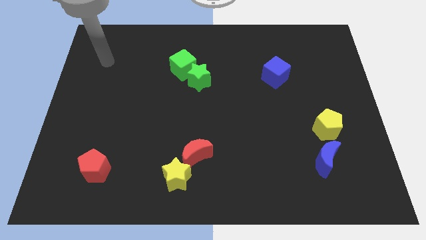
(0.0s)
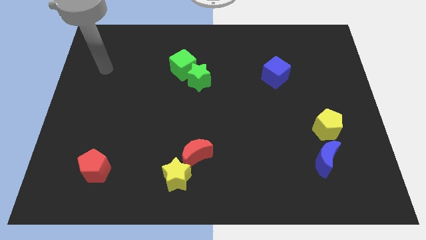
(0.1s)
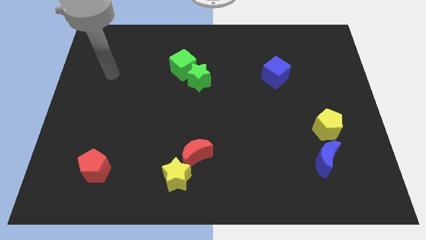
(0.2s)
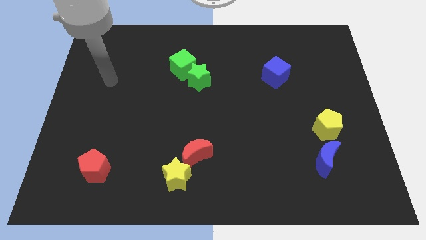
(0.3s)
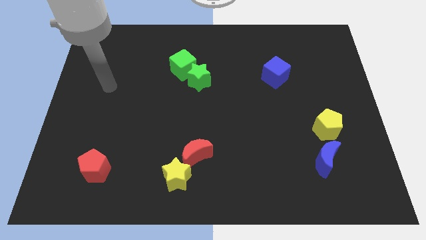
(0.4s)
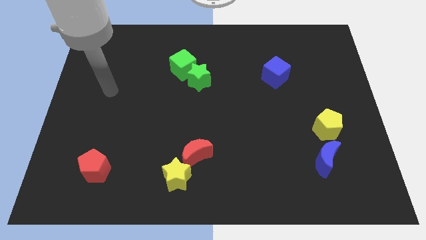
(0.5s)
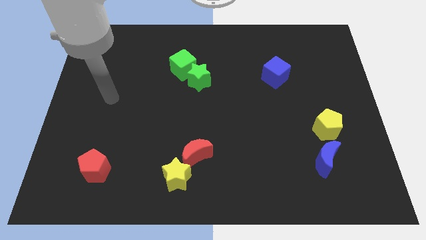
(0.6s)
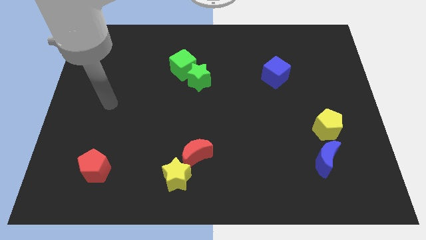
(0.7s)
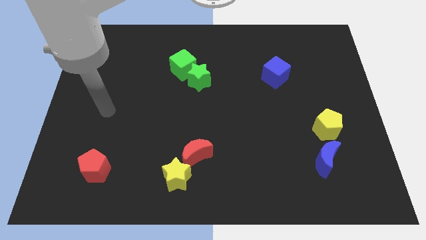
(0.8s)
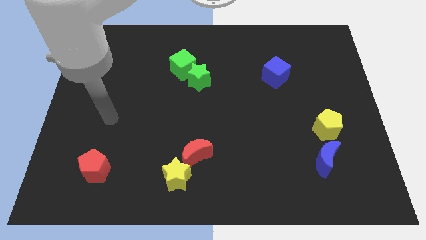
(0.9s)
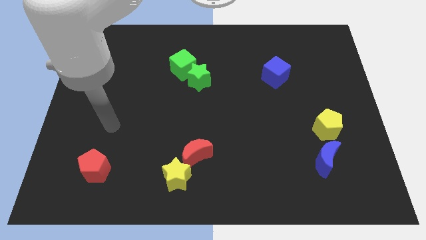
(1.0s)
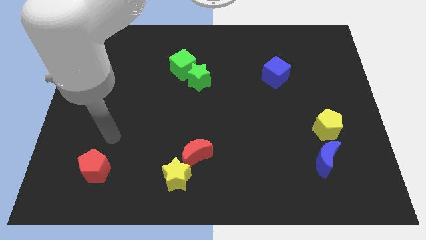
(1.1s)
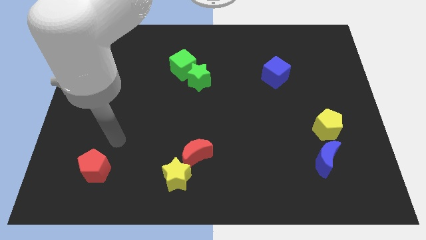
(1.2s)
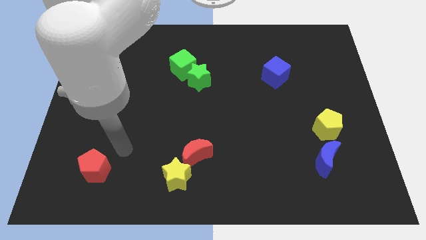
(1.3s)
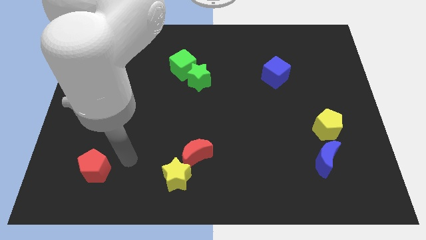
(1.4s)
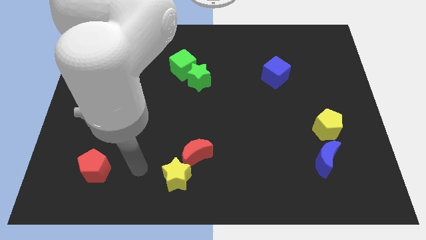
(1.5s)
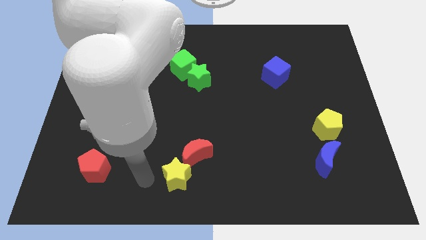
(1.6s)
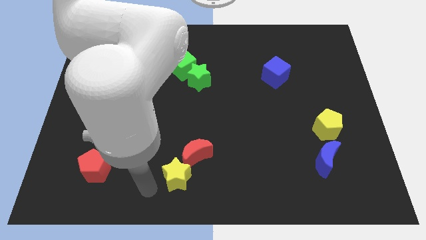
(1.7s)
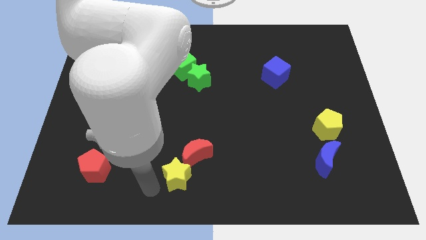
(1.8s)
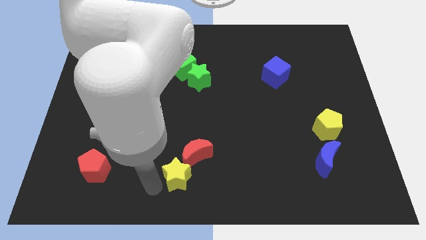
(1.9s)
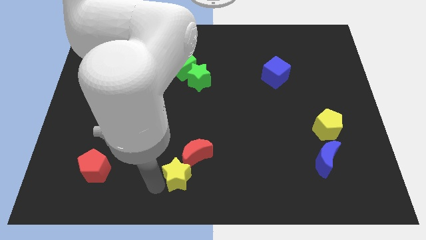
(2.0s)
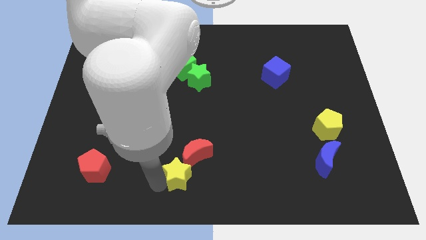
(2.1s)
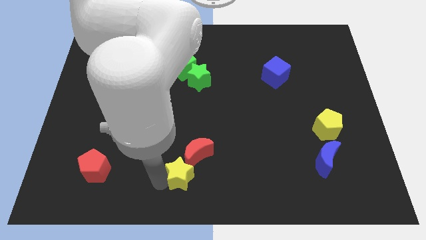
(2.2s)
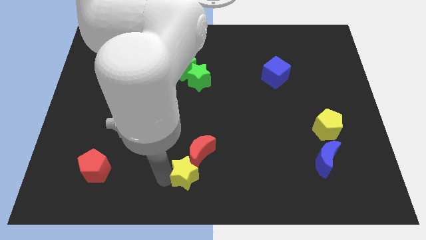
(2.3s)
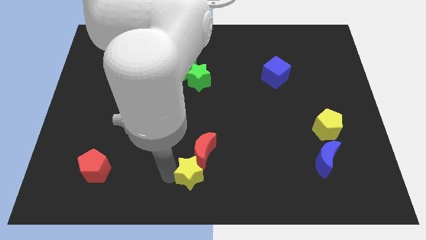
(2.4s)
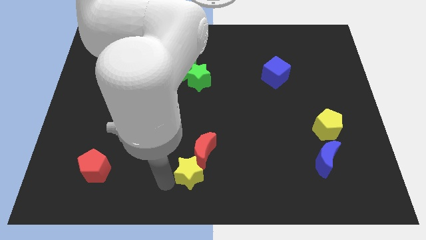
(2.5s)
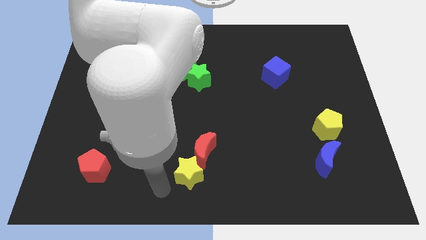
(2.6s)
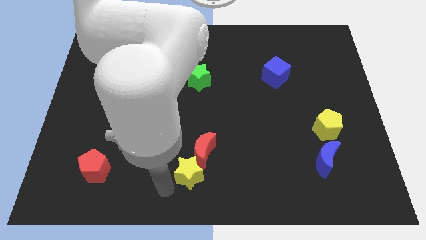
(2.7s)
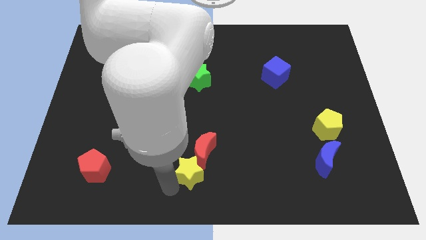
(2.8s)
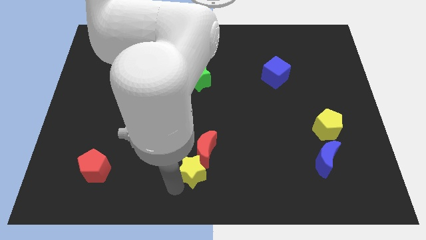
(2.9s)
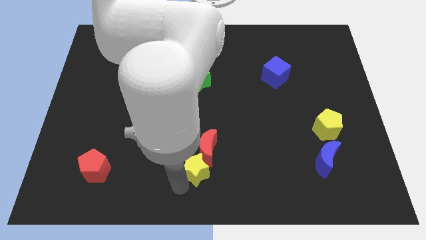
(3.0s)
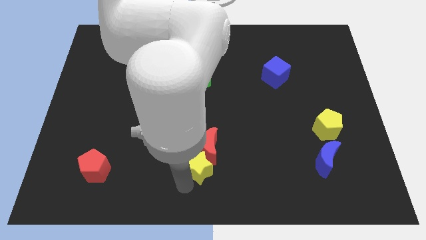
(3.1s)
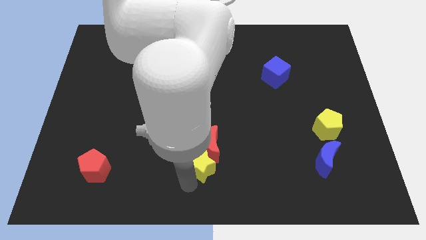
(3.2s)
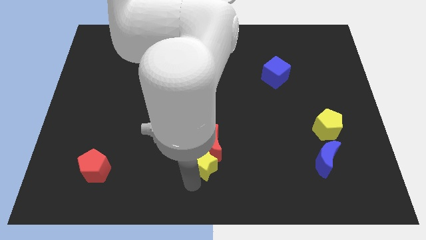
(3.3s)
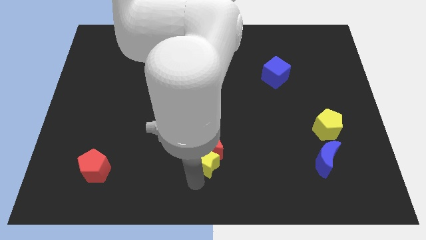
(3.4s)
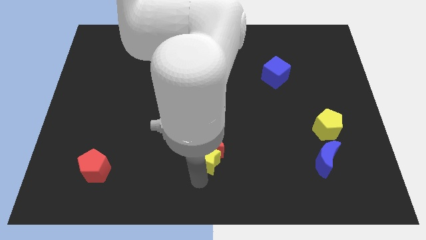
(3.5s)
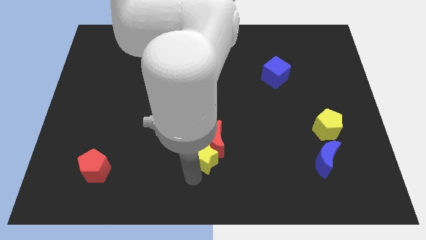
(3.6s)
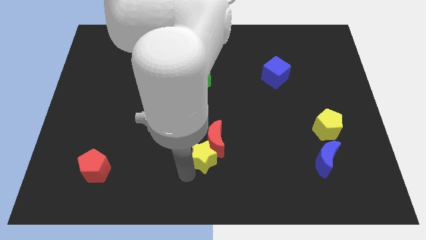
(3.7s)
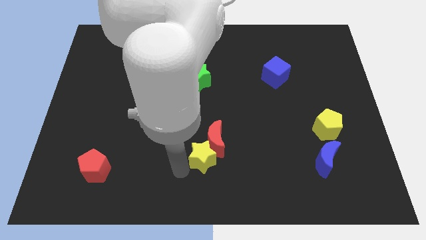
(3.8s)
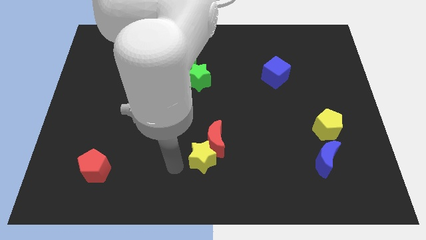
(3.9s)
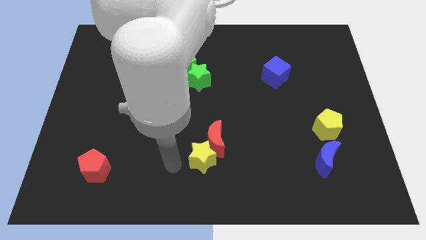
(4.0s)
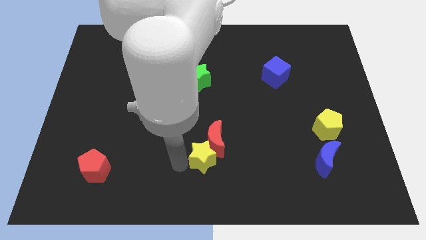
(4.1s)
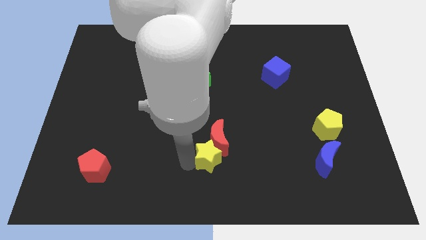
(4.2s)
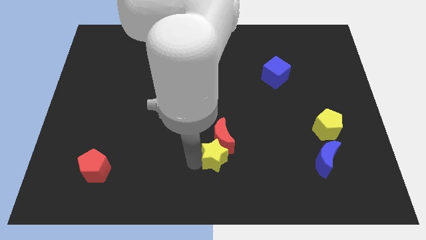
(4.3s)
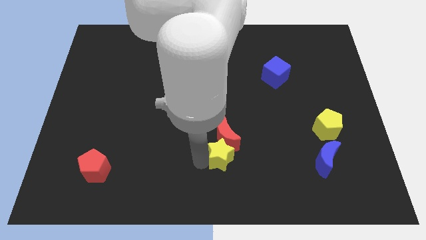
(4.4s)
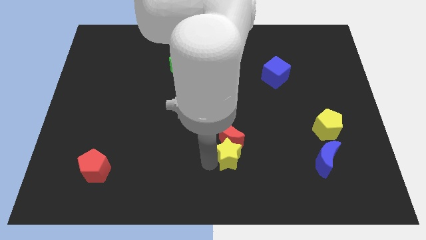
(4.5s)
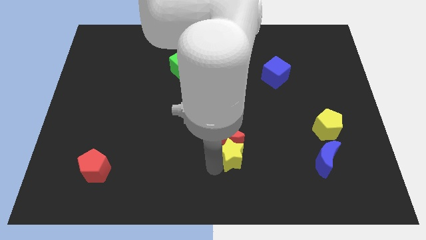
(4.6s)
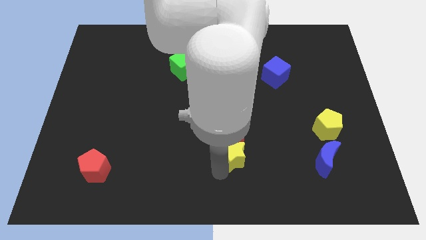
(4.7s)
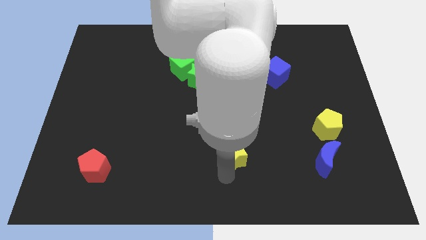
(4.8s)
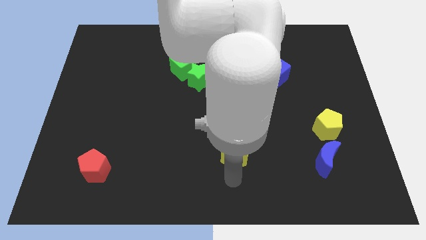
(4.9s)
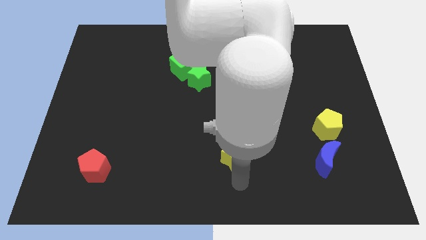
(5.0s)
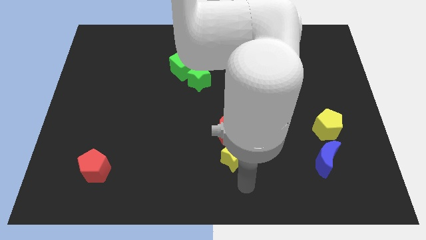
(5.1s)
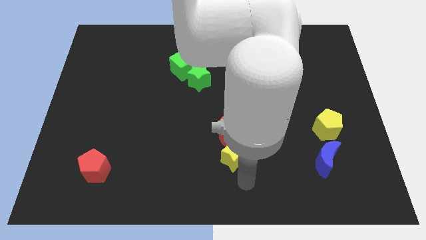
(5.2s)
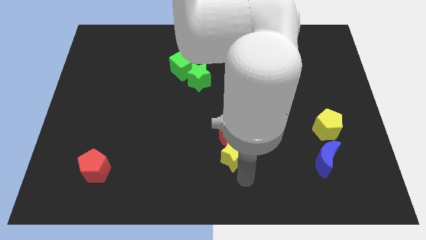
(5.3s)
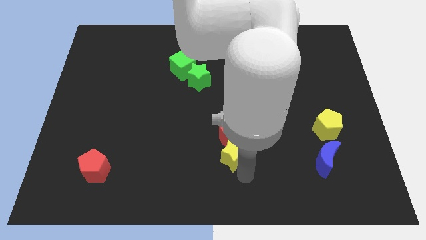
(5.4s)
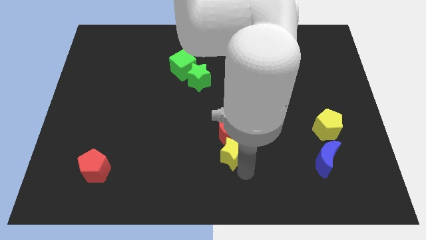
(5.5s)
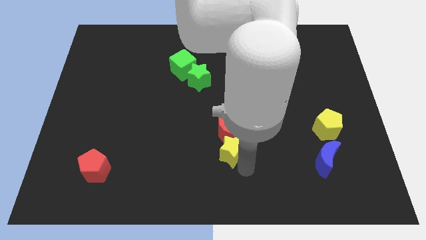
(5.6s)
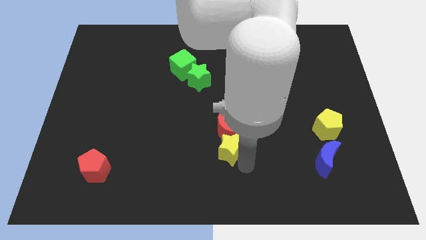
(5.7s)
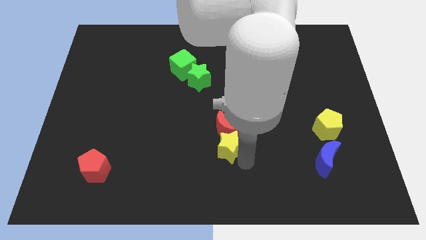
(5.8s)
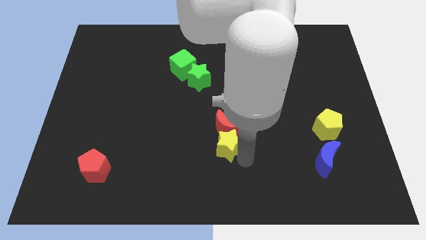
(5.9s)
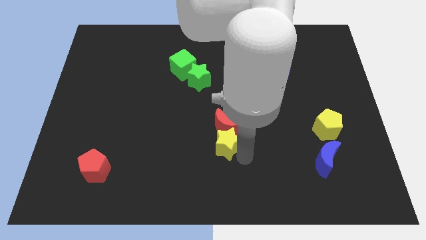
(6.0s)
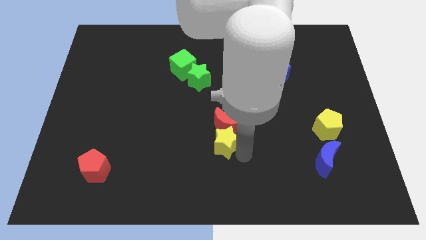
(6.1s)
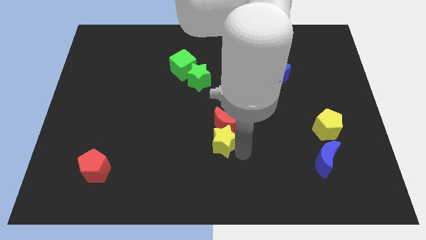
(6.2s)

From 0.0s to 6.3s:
push the yellow star to the middle
